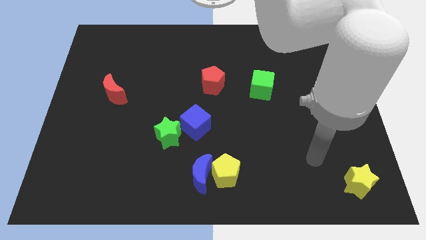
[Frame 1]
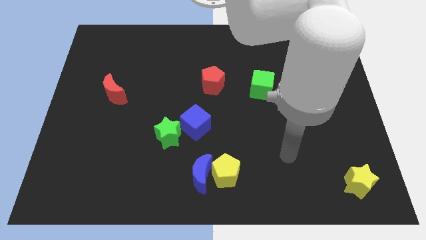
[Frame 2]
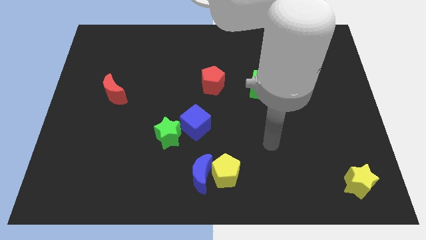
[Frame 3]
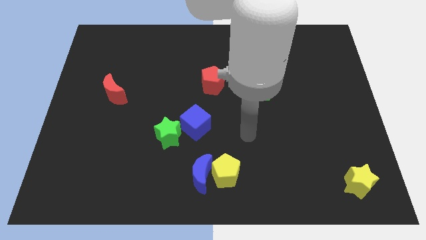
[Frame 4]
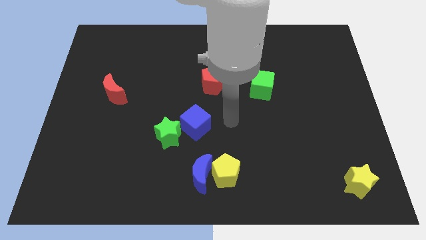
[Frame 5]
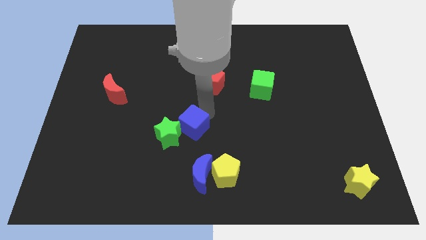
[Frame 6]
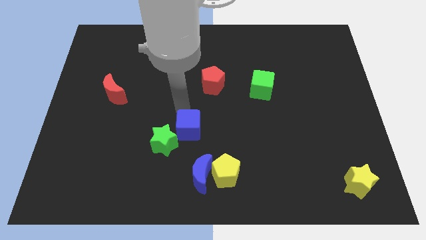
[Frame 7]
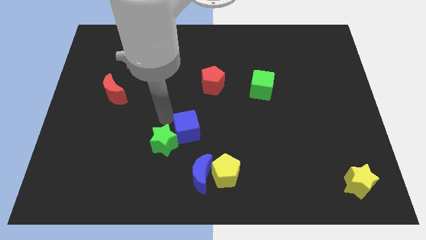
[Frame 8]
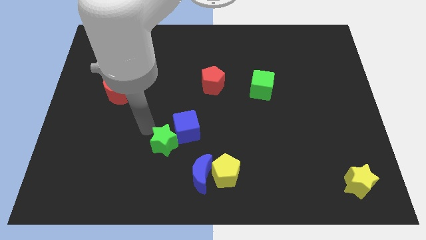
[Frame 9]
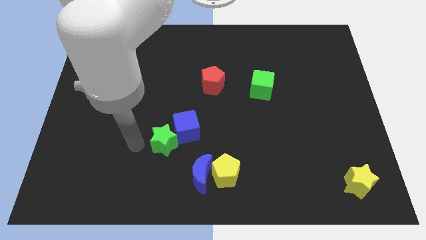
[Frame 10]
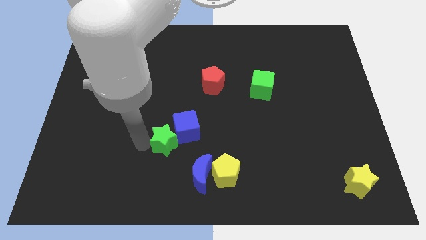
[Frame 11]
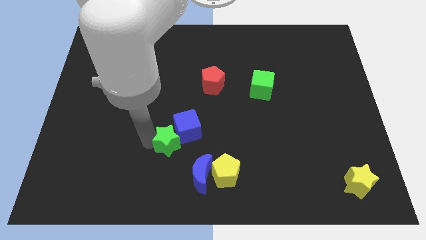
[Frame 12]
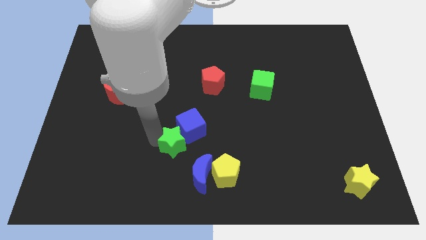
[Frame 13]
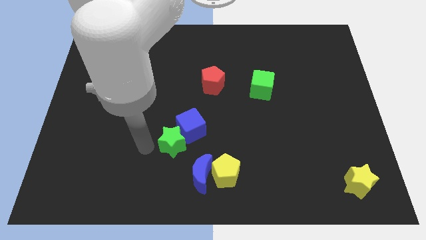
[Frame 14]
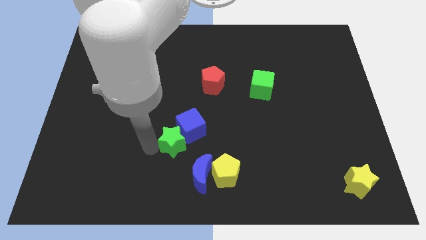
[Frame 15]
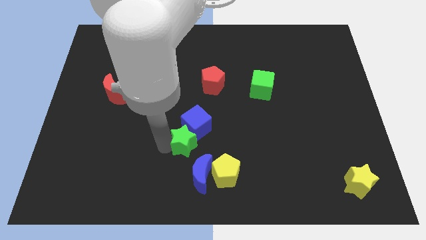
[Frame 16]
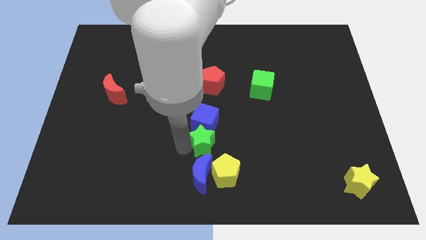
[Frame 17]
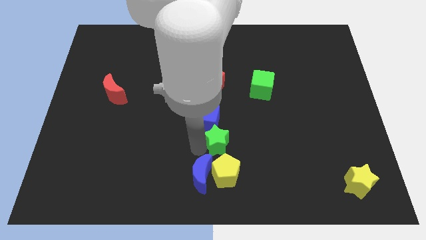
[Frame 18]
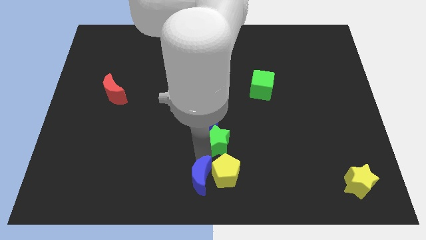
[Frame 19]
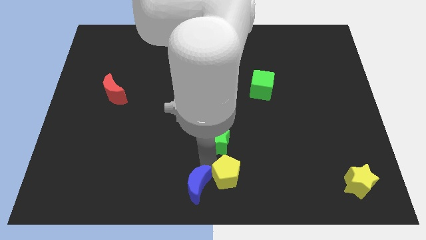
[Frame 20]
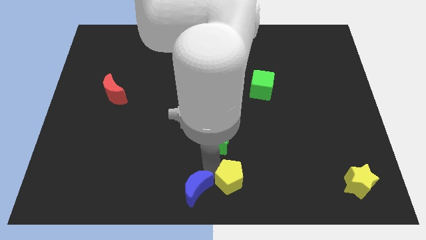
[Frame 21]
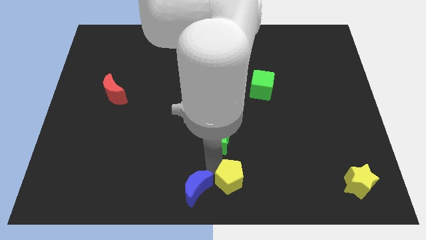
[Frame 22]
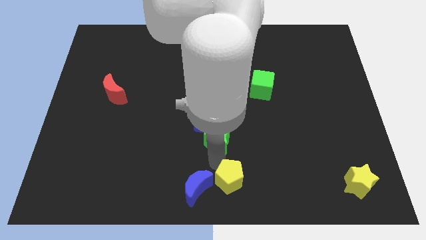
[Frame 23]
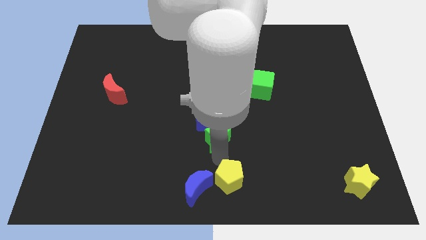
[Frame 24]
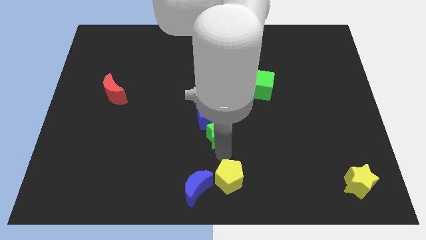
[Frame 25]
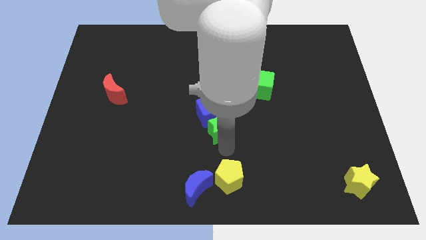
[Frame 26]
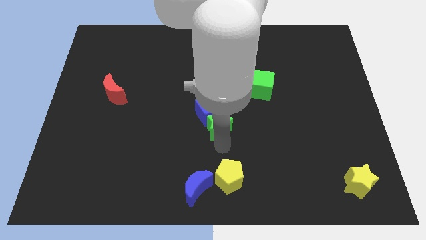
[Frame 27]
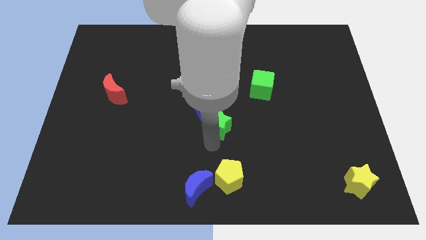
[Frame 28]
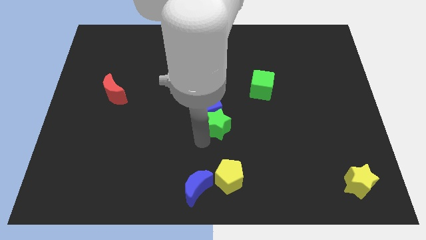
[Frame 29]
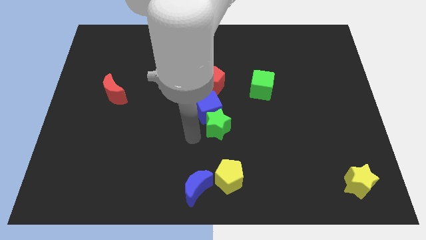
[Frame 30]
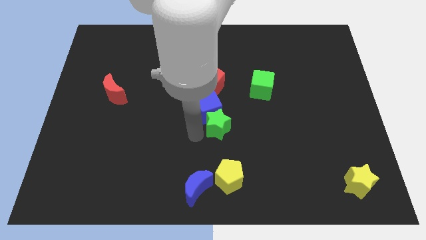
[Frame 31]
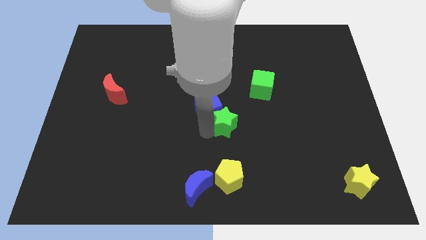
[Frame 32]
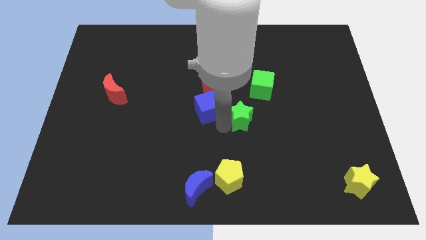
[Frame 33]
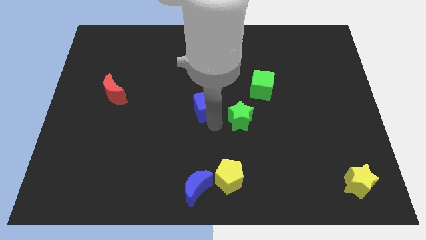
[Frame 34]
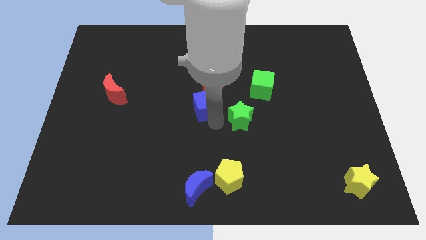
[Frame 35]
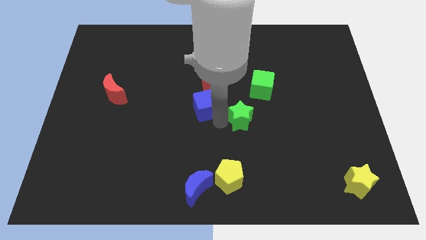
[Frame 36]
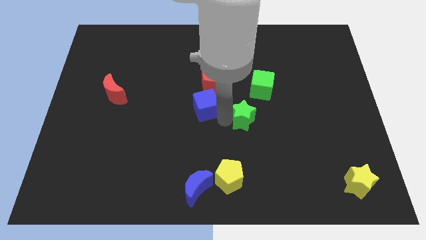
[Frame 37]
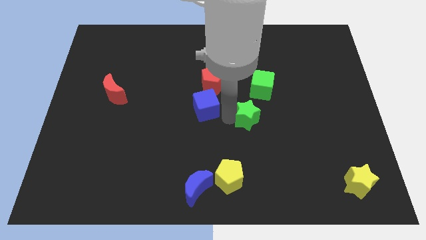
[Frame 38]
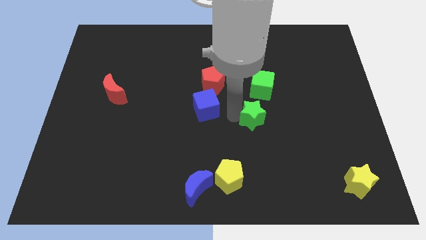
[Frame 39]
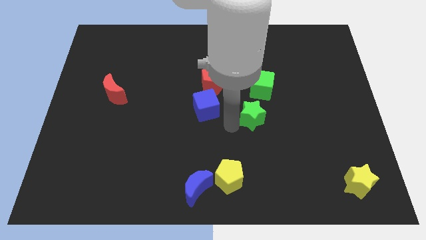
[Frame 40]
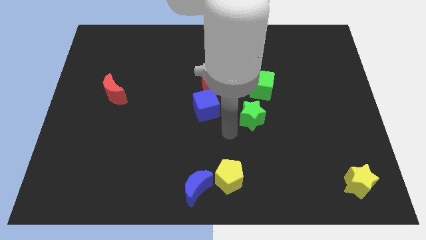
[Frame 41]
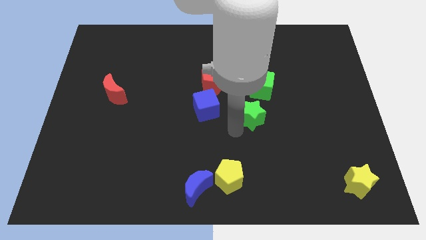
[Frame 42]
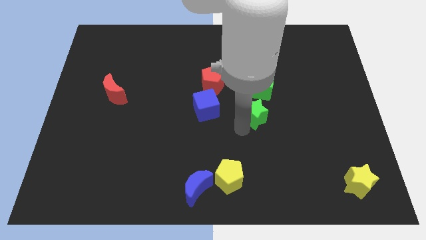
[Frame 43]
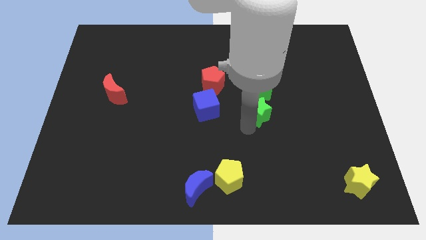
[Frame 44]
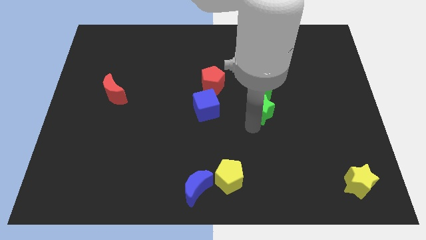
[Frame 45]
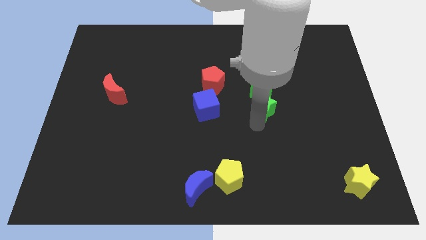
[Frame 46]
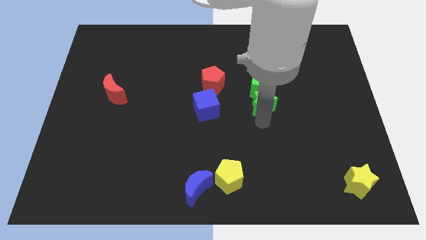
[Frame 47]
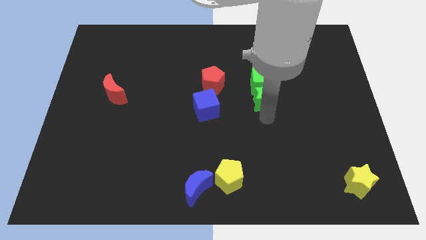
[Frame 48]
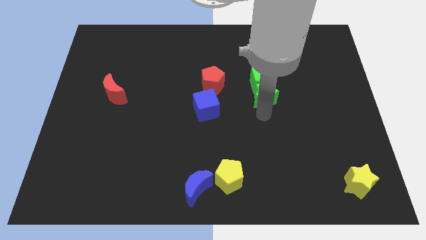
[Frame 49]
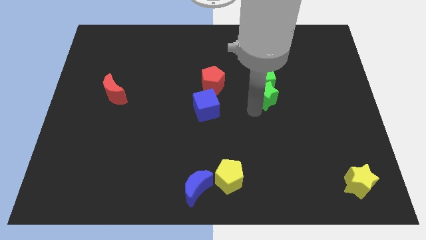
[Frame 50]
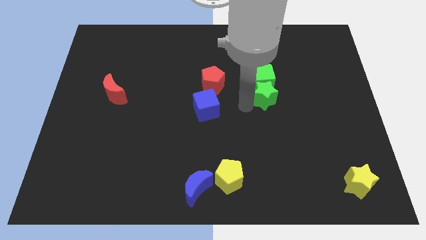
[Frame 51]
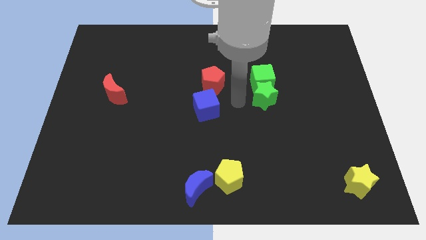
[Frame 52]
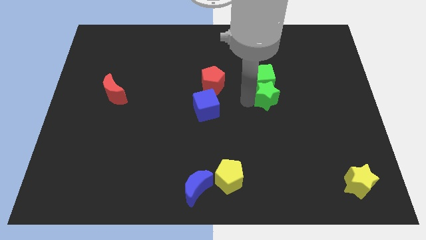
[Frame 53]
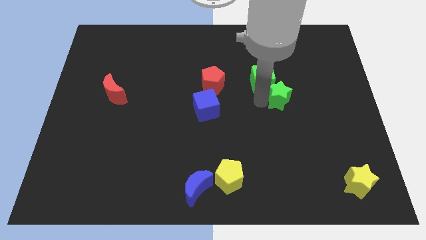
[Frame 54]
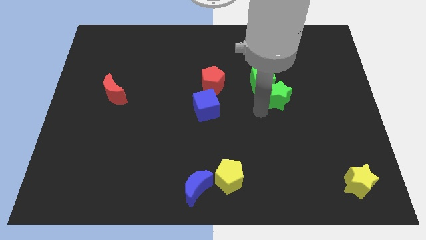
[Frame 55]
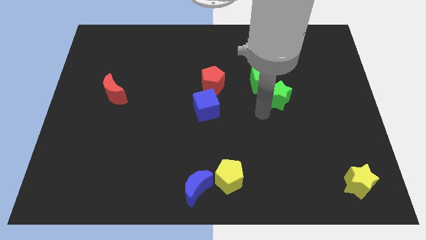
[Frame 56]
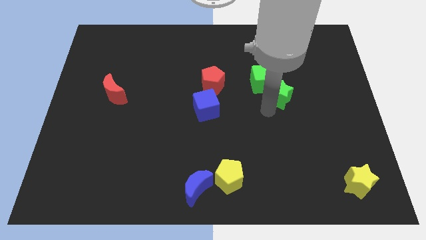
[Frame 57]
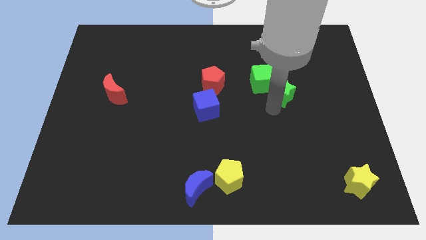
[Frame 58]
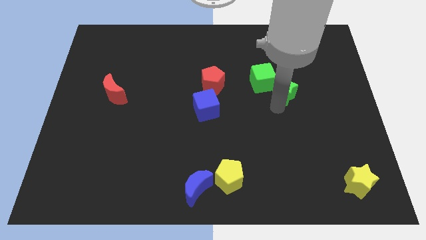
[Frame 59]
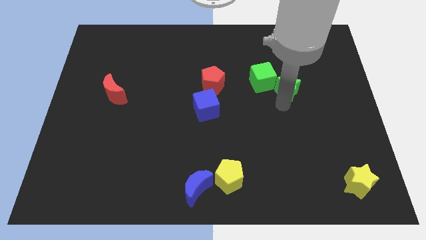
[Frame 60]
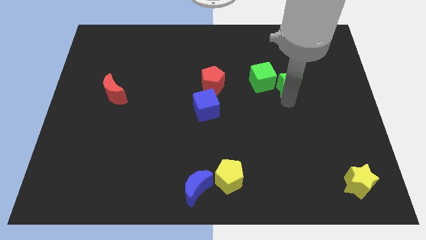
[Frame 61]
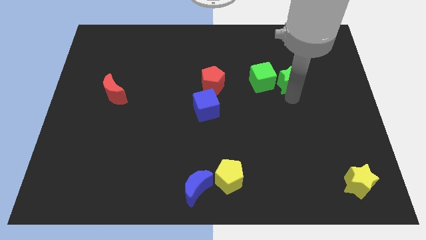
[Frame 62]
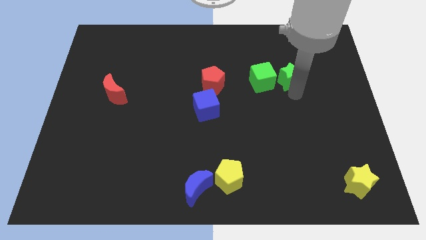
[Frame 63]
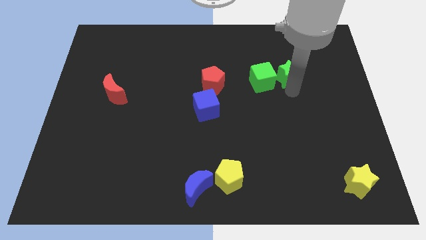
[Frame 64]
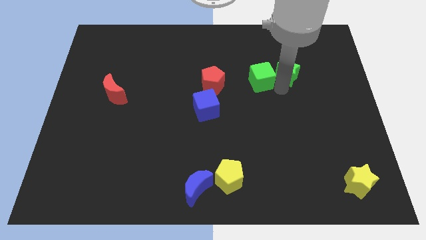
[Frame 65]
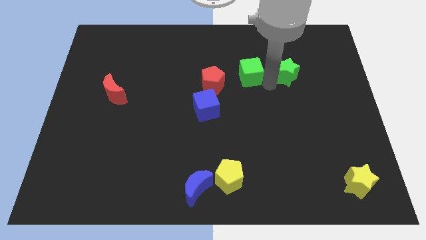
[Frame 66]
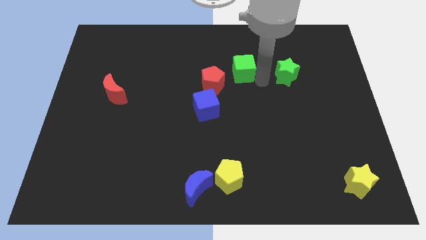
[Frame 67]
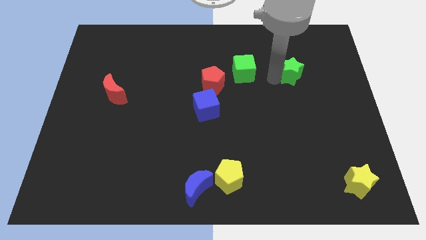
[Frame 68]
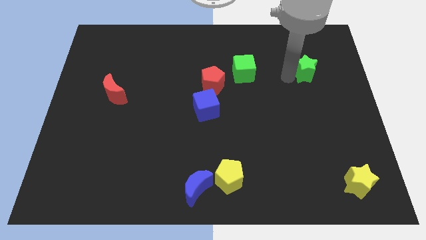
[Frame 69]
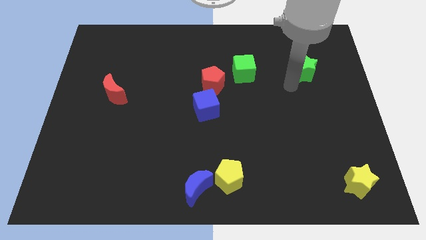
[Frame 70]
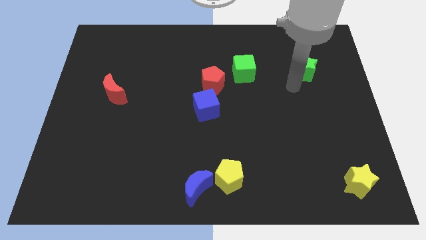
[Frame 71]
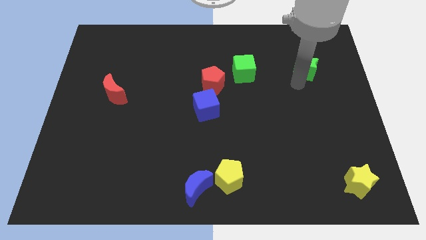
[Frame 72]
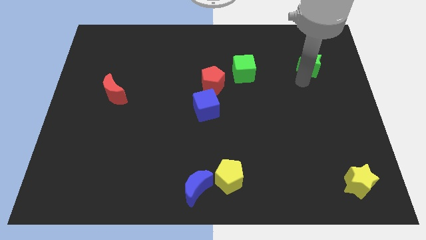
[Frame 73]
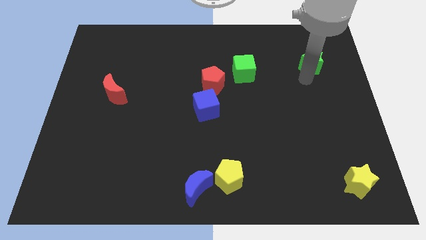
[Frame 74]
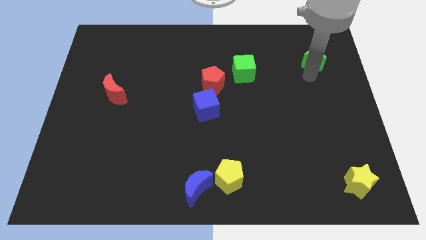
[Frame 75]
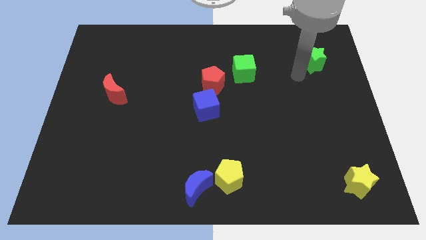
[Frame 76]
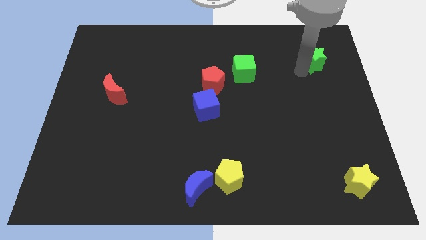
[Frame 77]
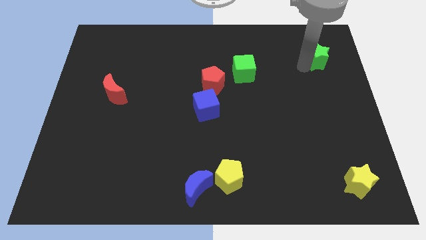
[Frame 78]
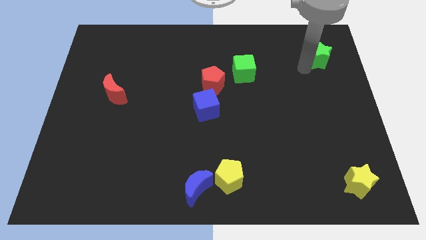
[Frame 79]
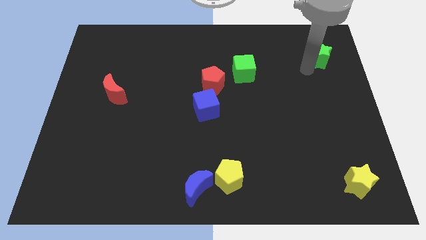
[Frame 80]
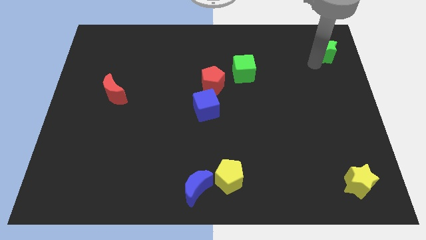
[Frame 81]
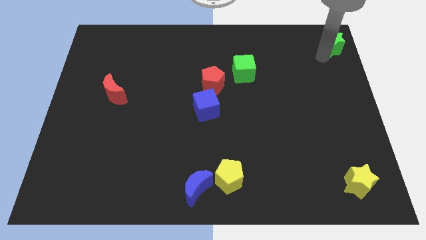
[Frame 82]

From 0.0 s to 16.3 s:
slide the green star to the top right corner
